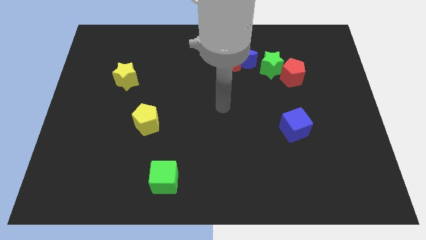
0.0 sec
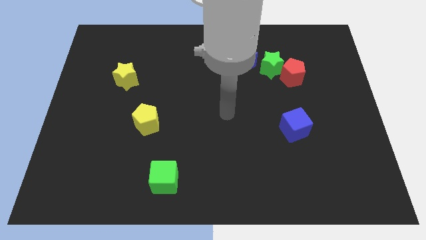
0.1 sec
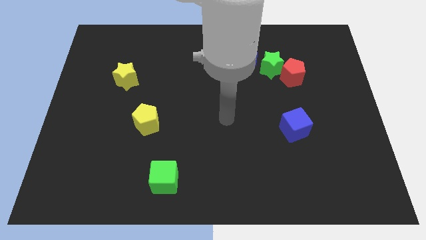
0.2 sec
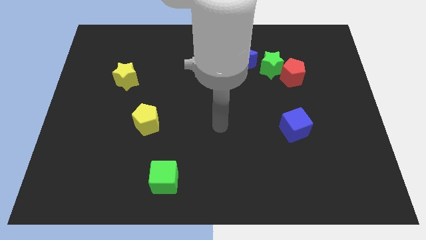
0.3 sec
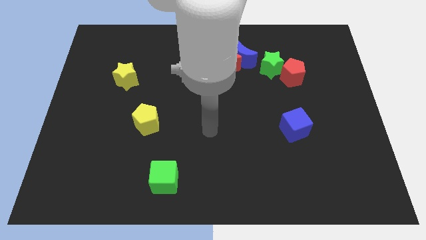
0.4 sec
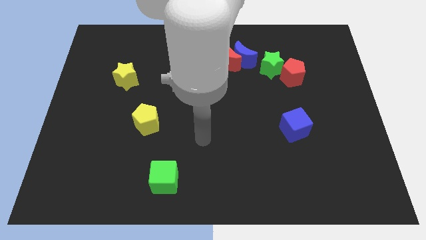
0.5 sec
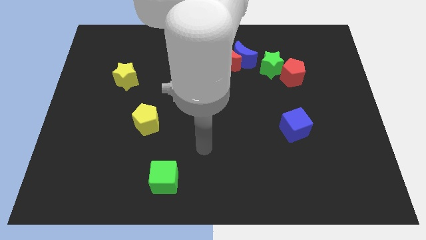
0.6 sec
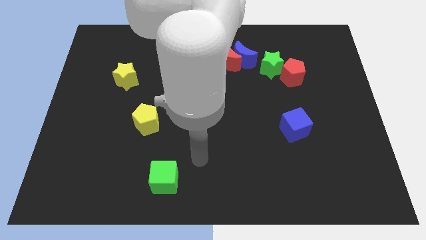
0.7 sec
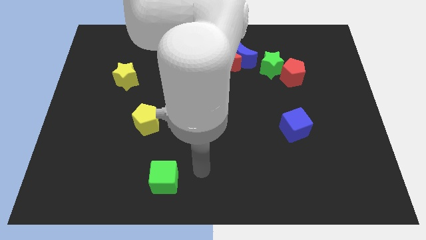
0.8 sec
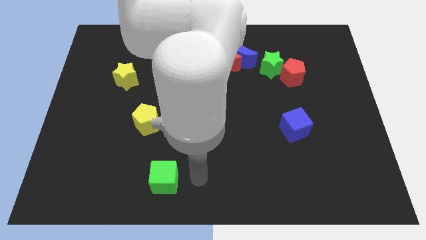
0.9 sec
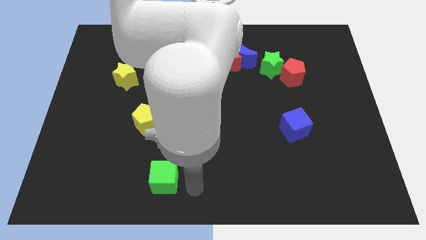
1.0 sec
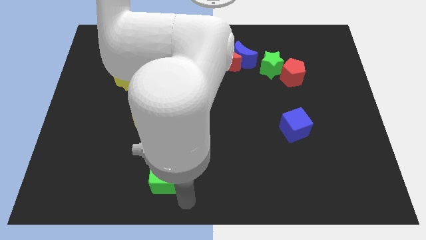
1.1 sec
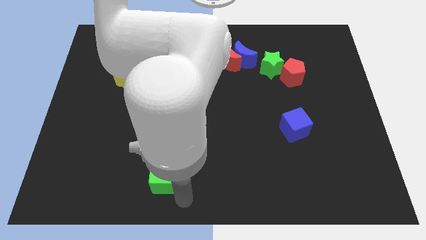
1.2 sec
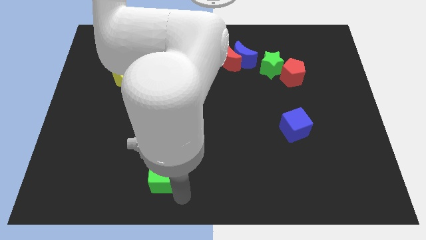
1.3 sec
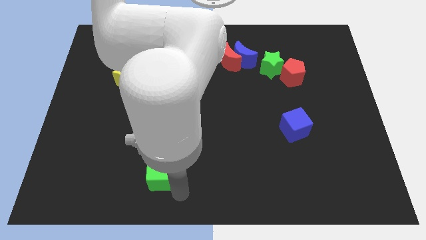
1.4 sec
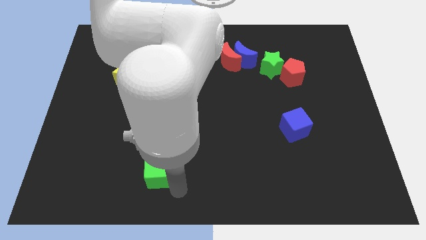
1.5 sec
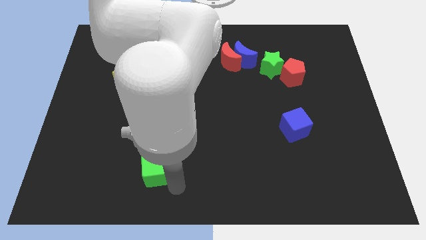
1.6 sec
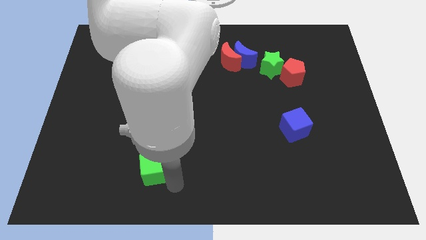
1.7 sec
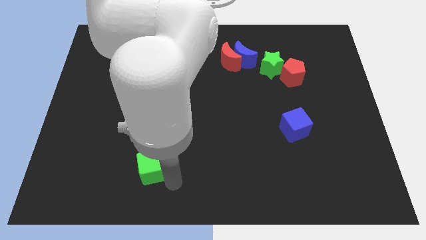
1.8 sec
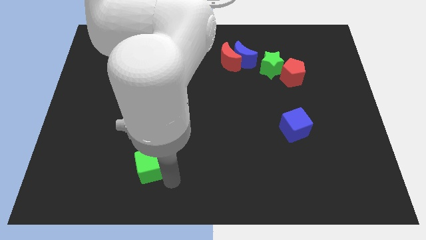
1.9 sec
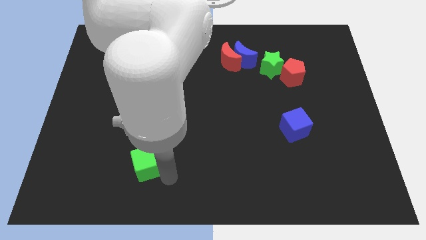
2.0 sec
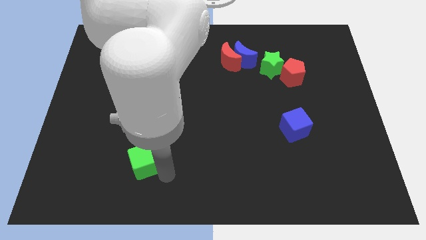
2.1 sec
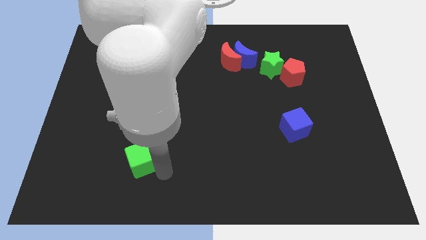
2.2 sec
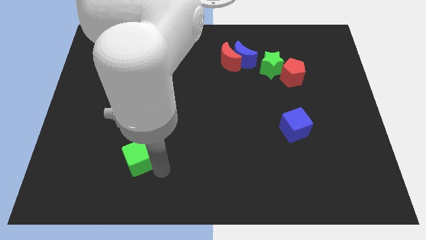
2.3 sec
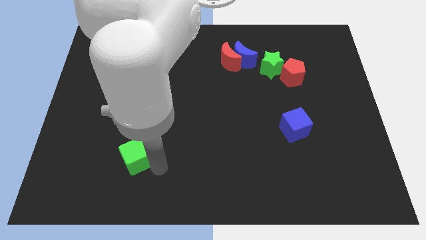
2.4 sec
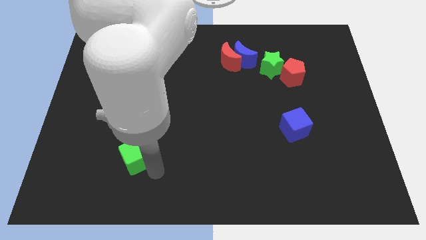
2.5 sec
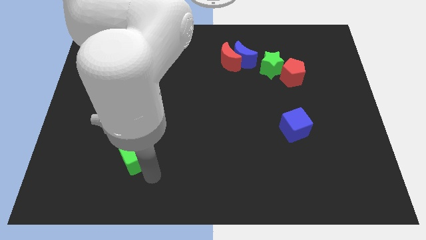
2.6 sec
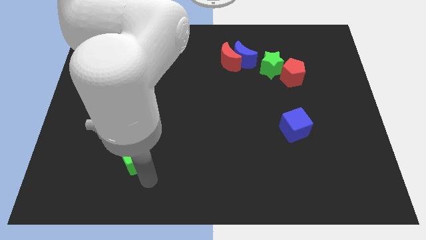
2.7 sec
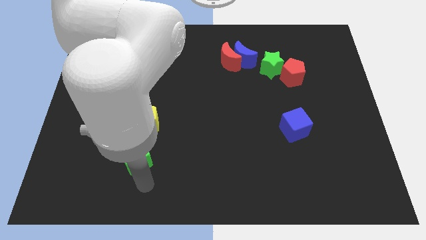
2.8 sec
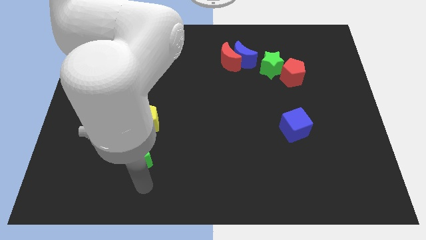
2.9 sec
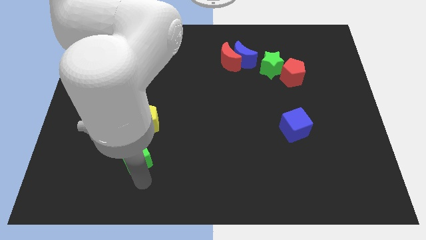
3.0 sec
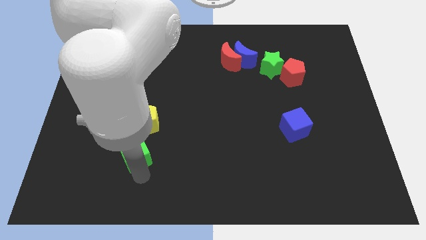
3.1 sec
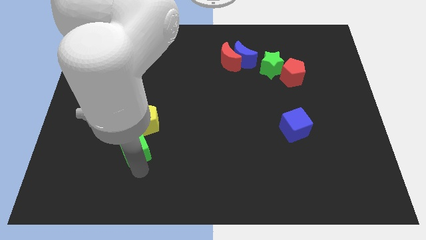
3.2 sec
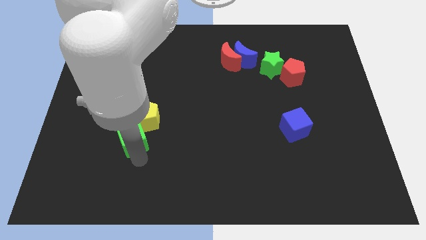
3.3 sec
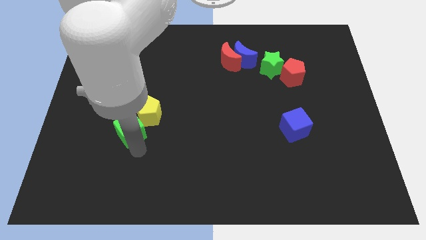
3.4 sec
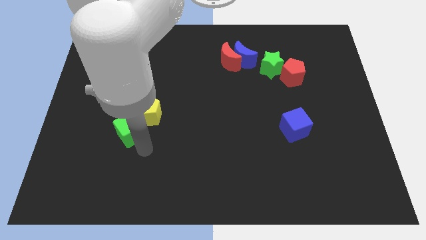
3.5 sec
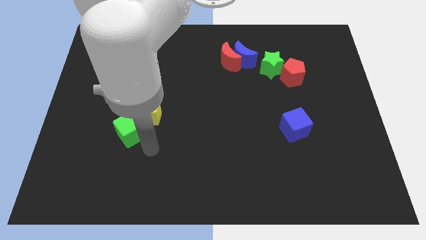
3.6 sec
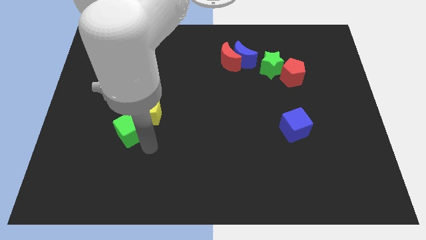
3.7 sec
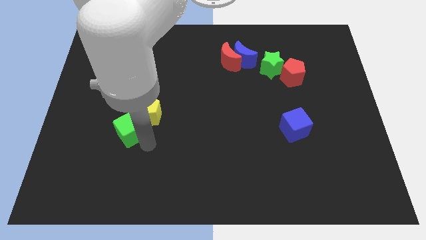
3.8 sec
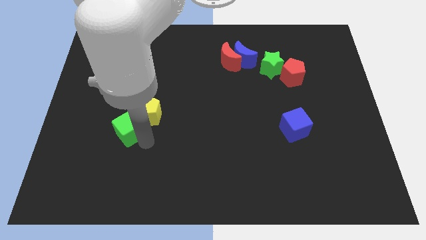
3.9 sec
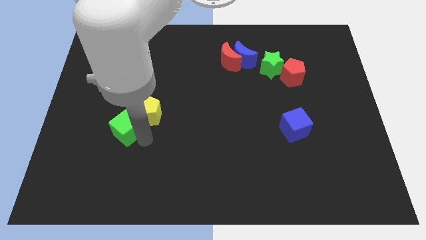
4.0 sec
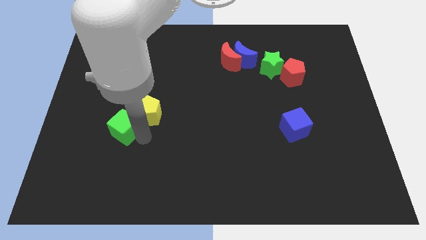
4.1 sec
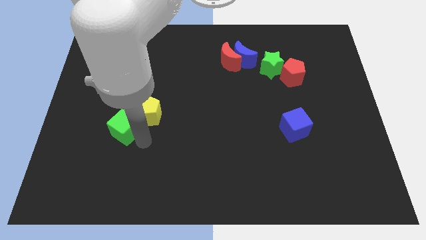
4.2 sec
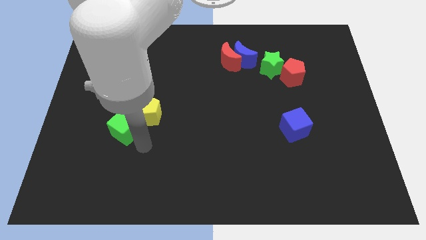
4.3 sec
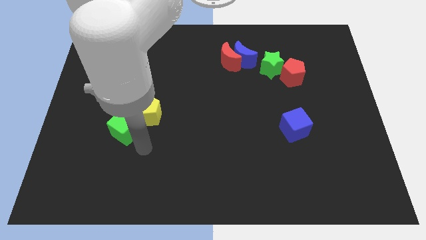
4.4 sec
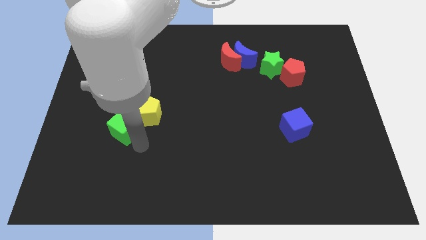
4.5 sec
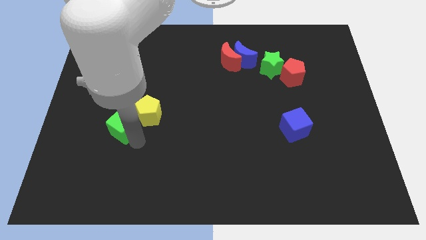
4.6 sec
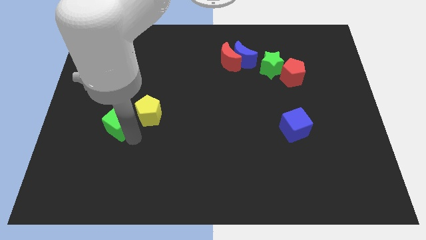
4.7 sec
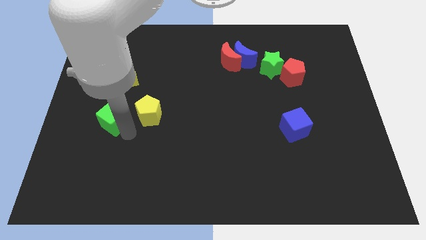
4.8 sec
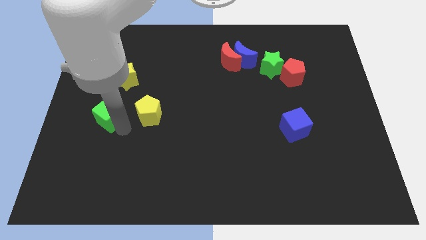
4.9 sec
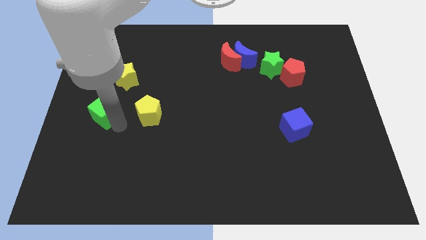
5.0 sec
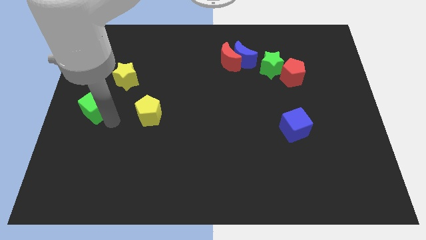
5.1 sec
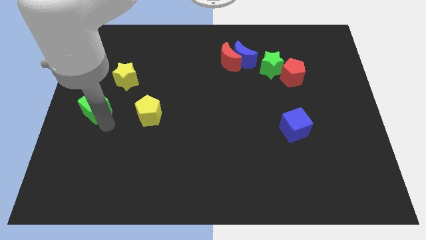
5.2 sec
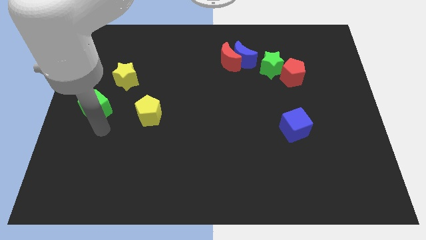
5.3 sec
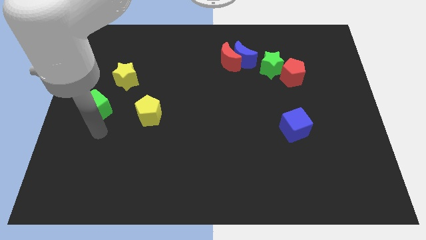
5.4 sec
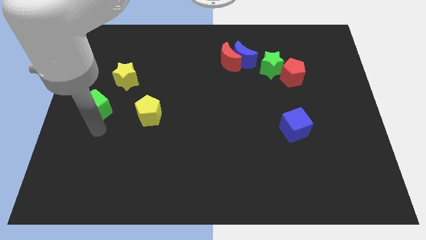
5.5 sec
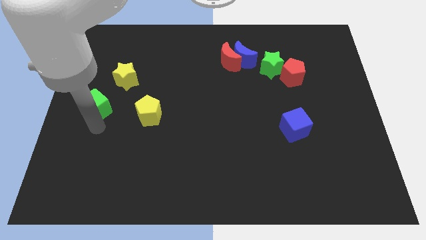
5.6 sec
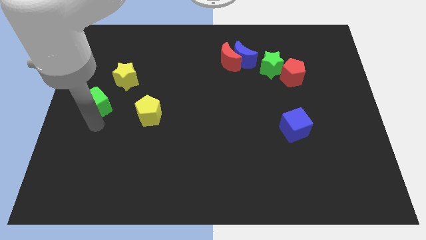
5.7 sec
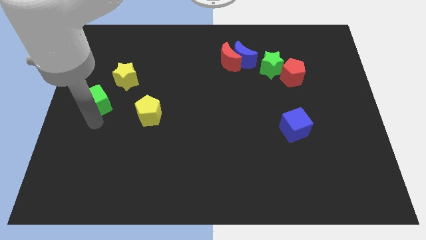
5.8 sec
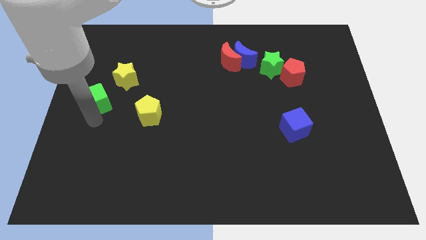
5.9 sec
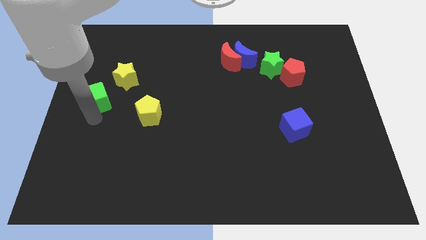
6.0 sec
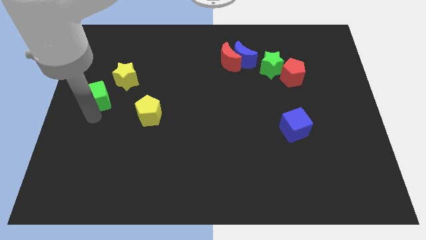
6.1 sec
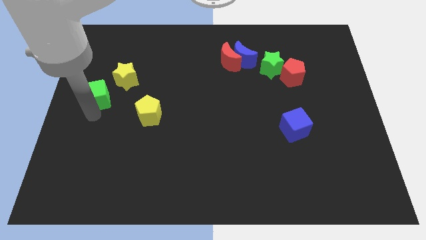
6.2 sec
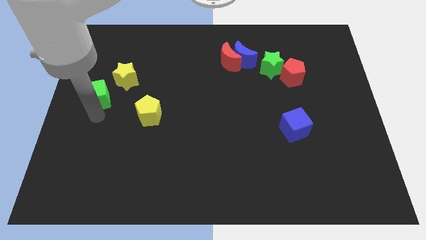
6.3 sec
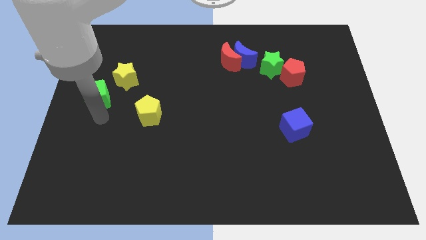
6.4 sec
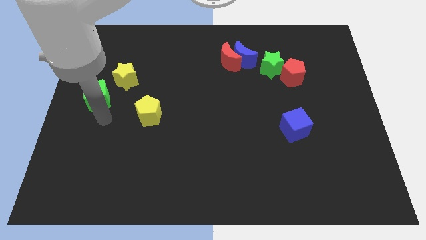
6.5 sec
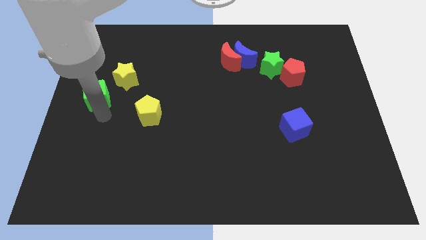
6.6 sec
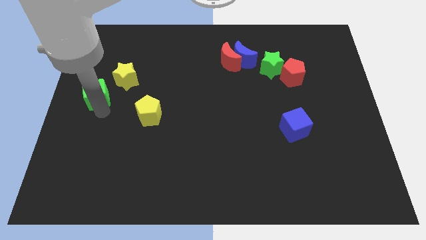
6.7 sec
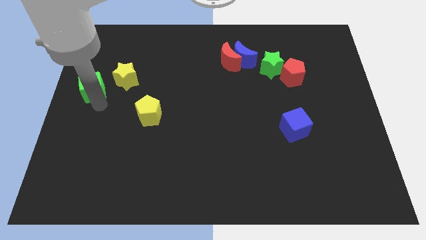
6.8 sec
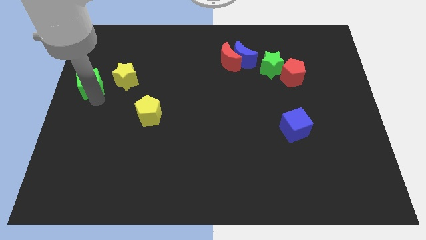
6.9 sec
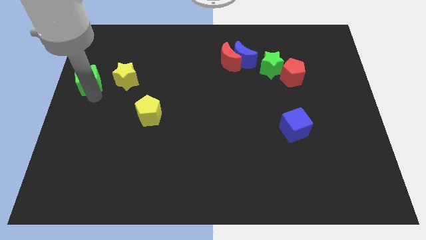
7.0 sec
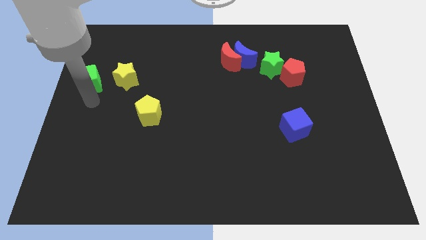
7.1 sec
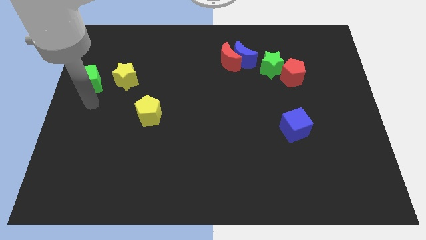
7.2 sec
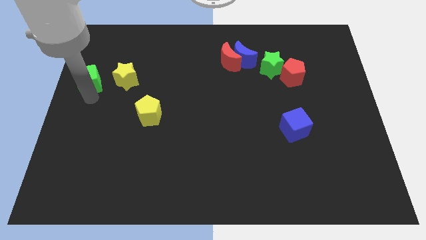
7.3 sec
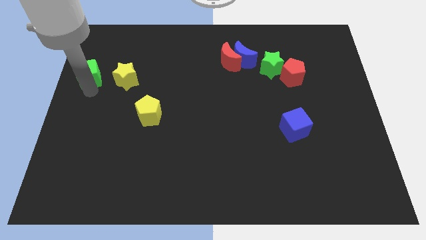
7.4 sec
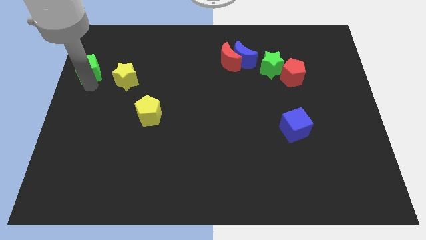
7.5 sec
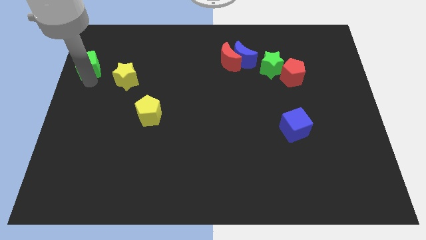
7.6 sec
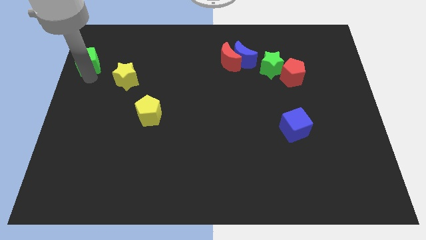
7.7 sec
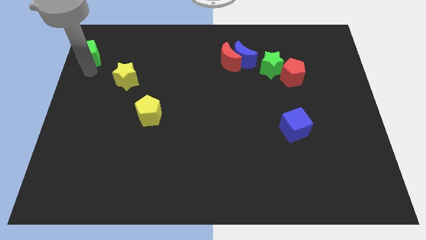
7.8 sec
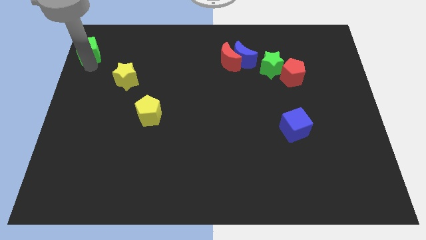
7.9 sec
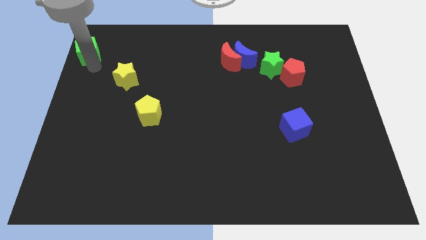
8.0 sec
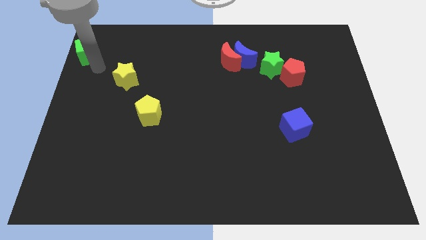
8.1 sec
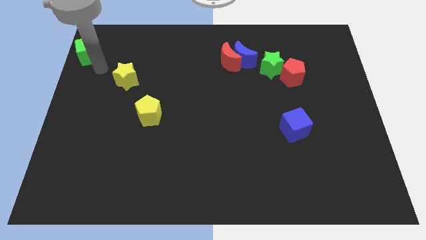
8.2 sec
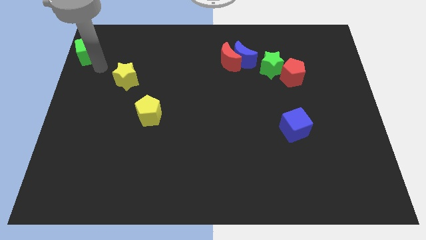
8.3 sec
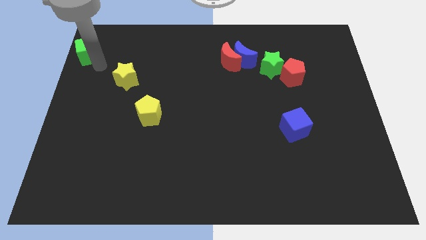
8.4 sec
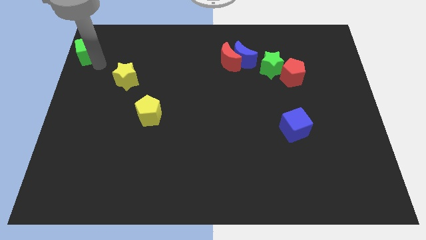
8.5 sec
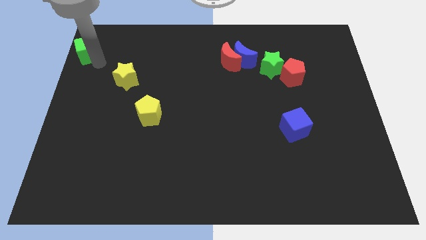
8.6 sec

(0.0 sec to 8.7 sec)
move the green cube to the upper left corner
